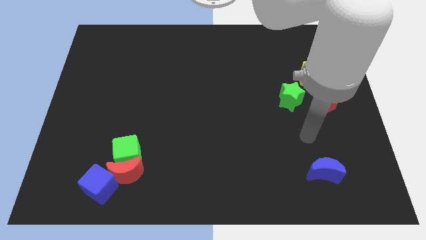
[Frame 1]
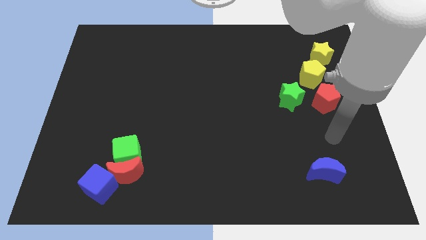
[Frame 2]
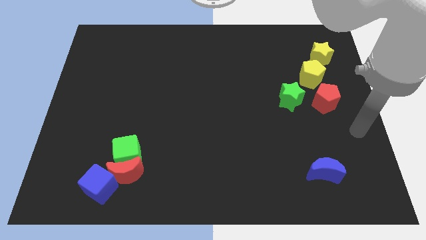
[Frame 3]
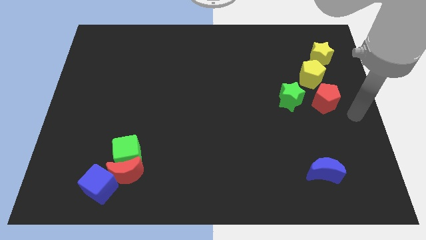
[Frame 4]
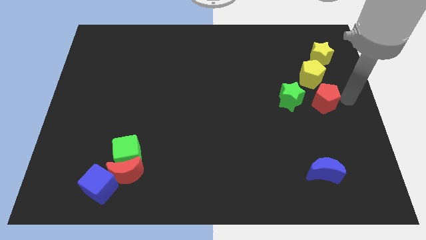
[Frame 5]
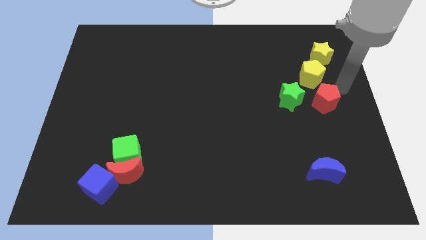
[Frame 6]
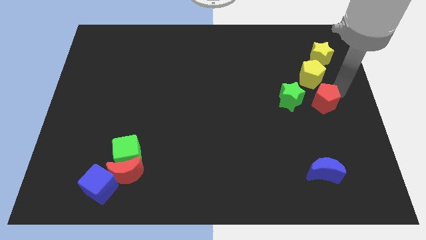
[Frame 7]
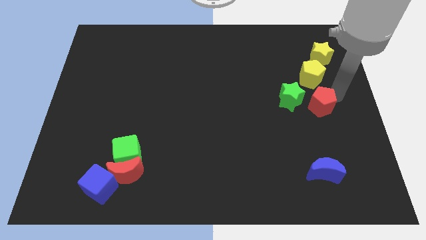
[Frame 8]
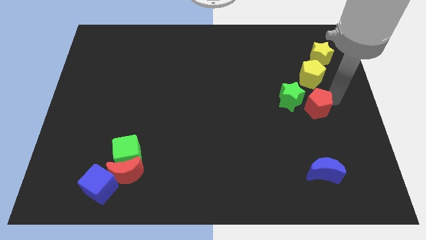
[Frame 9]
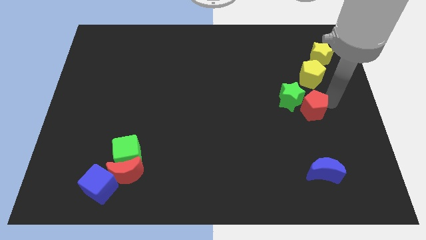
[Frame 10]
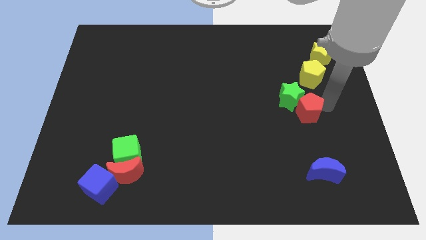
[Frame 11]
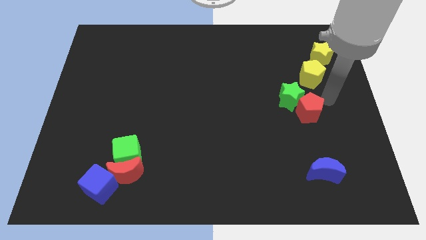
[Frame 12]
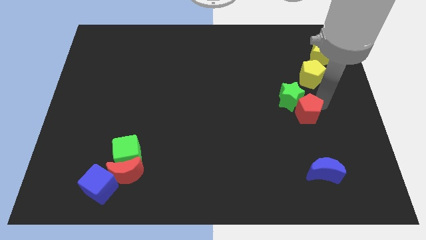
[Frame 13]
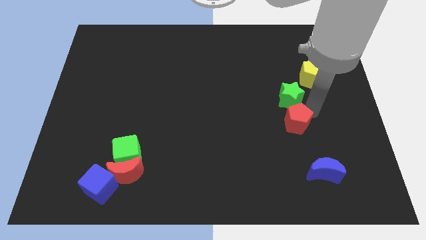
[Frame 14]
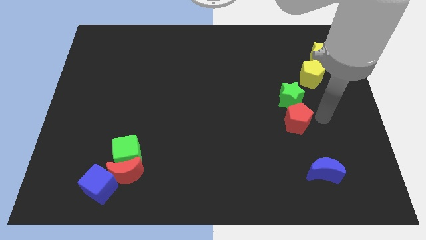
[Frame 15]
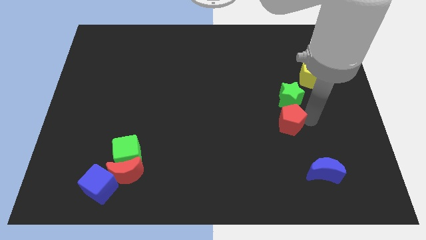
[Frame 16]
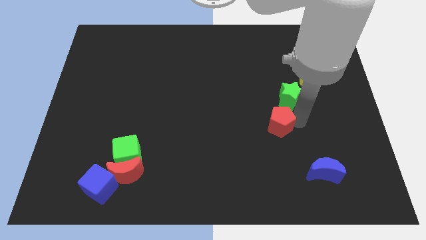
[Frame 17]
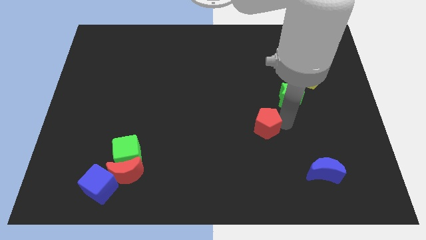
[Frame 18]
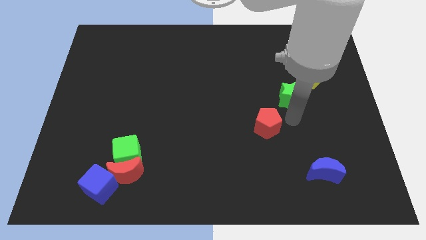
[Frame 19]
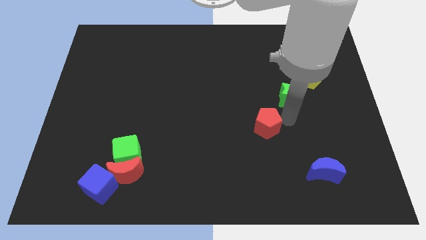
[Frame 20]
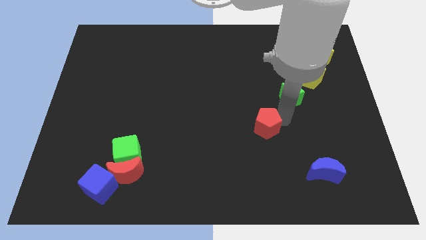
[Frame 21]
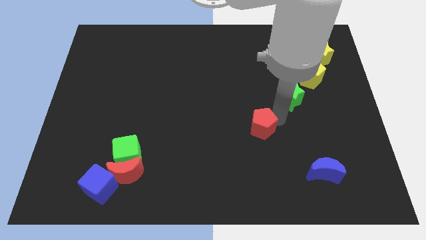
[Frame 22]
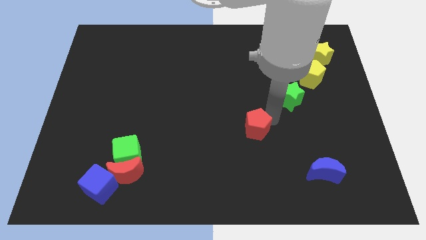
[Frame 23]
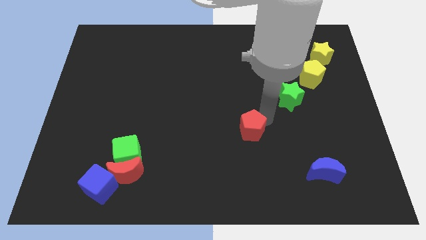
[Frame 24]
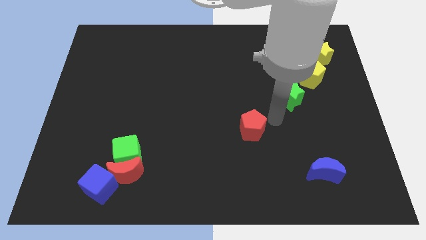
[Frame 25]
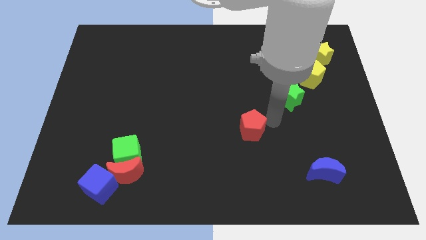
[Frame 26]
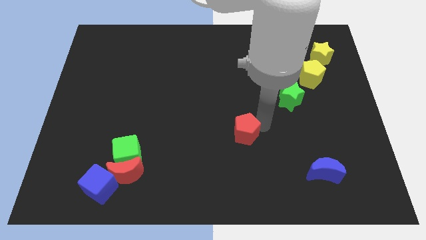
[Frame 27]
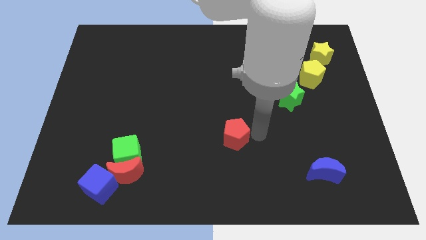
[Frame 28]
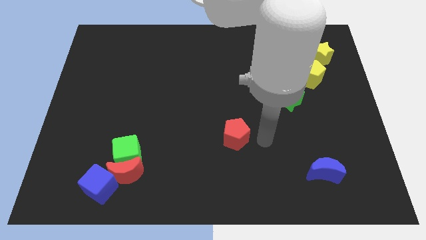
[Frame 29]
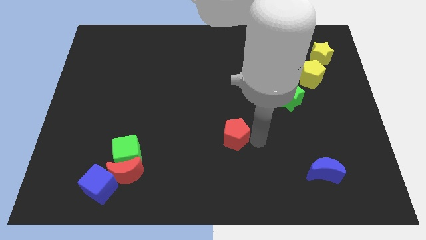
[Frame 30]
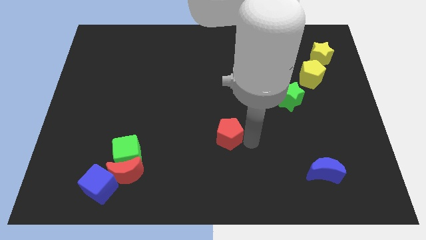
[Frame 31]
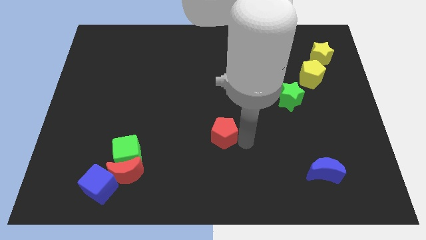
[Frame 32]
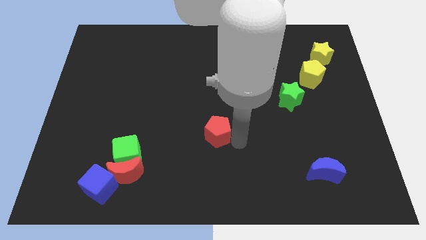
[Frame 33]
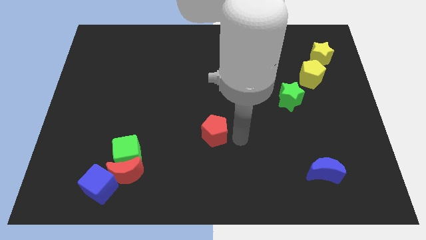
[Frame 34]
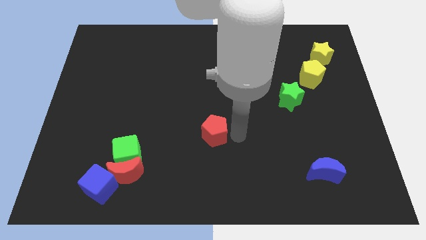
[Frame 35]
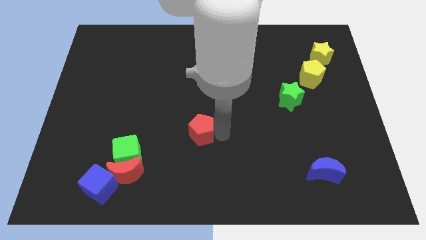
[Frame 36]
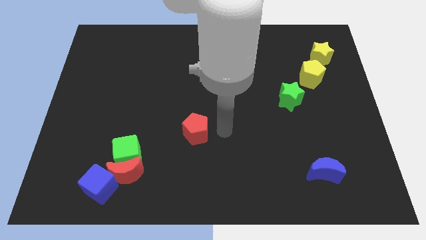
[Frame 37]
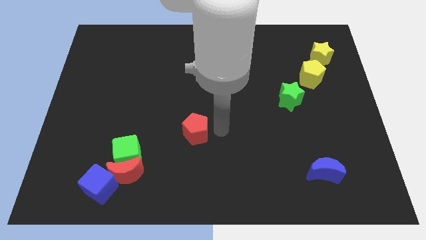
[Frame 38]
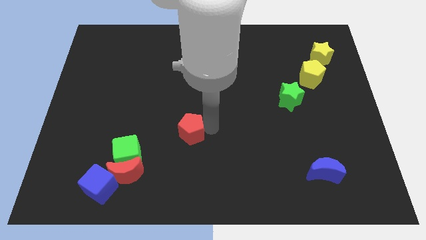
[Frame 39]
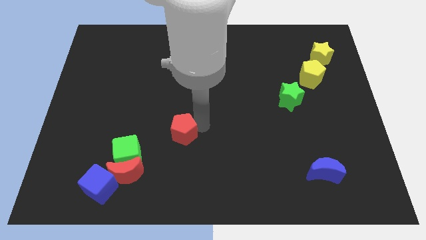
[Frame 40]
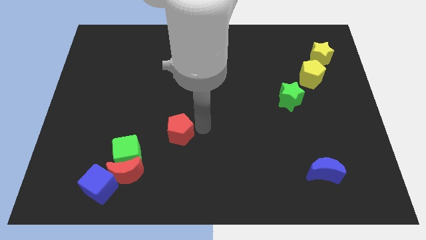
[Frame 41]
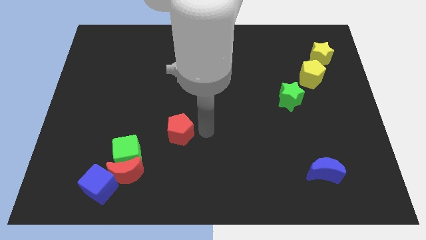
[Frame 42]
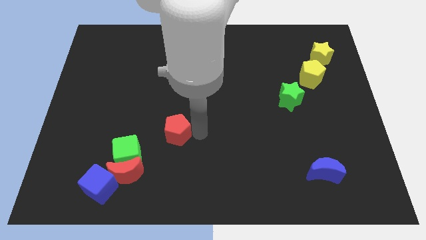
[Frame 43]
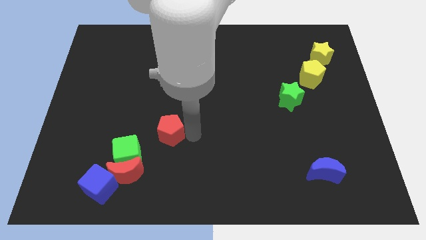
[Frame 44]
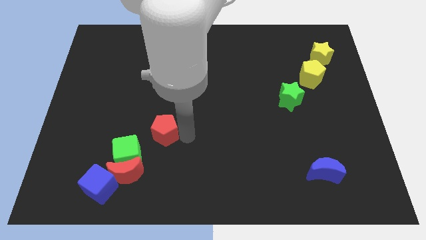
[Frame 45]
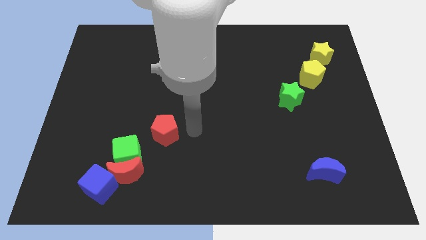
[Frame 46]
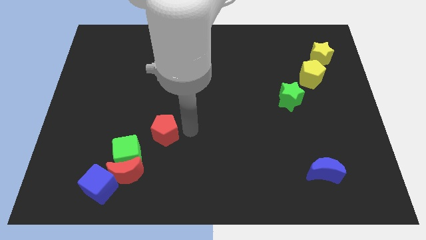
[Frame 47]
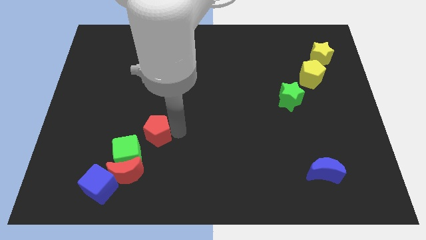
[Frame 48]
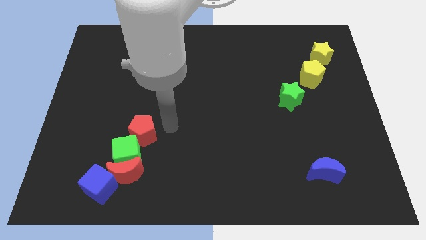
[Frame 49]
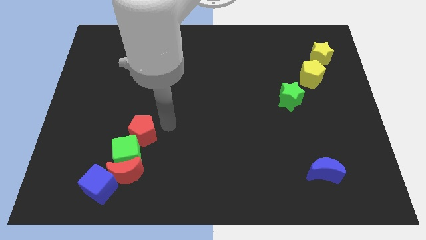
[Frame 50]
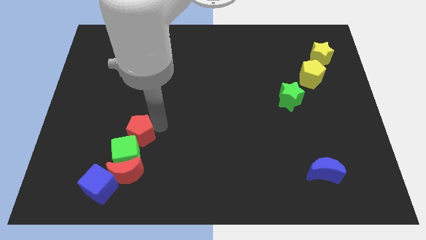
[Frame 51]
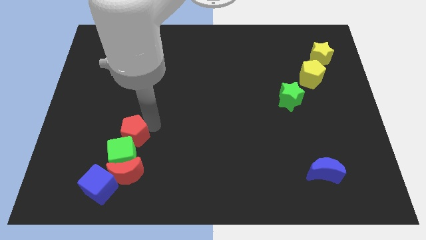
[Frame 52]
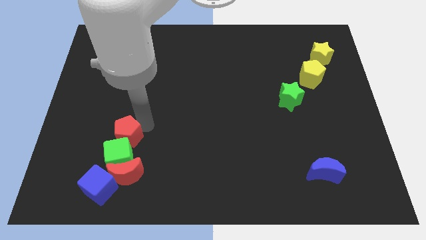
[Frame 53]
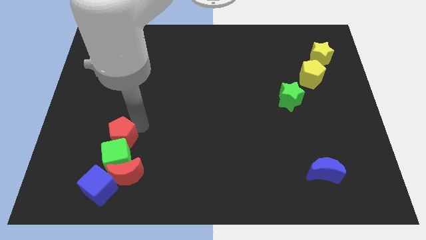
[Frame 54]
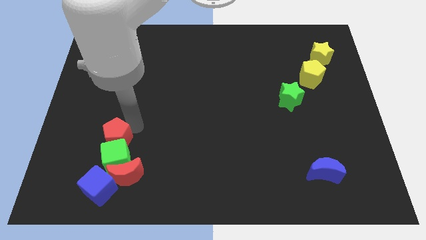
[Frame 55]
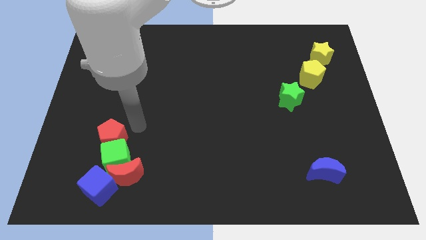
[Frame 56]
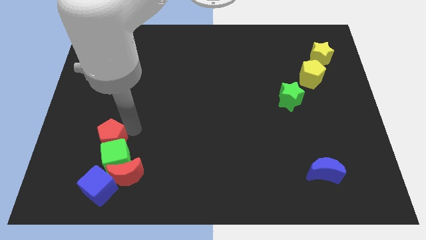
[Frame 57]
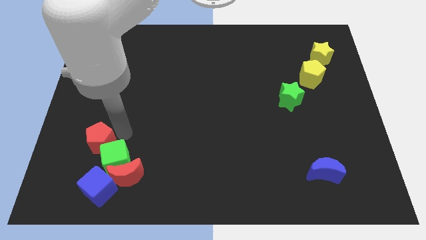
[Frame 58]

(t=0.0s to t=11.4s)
push the red pentagon just left of the green cube
